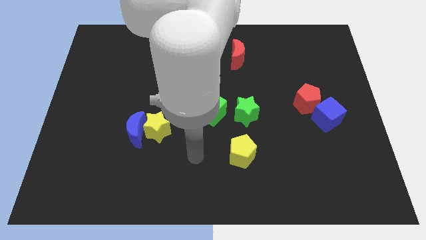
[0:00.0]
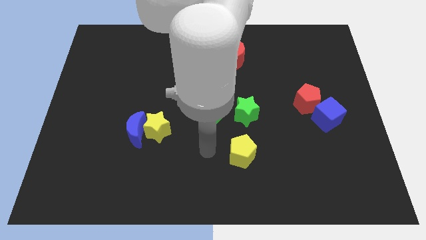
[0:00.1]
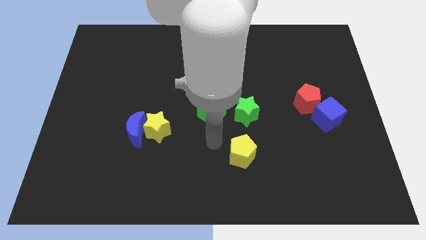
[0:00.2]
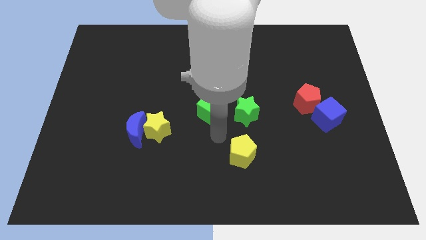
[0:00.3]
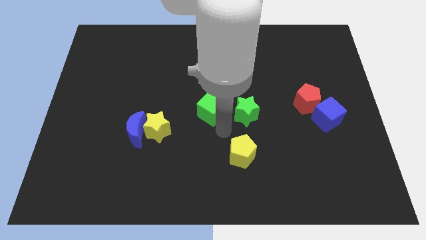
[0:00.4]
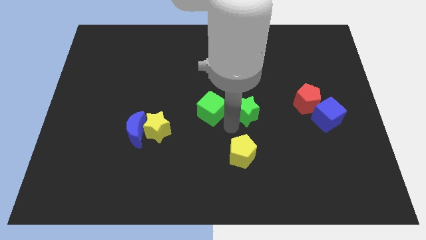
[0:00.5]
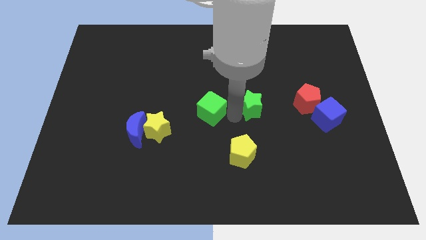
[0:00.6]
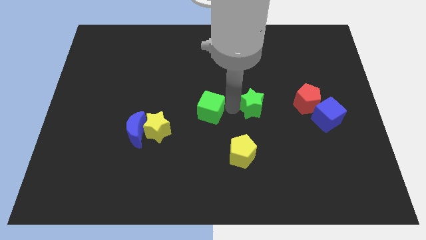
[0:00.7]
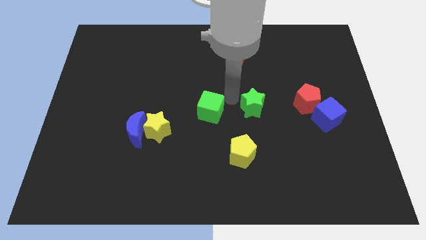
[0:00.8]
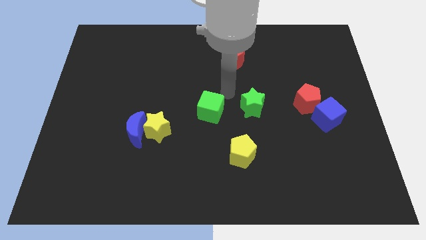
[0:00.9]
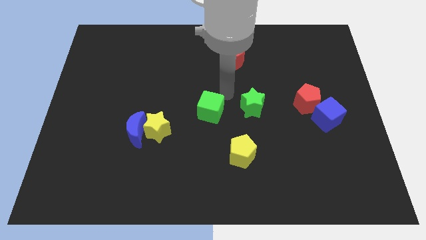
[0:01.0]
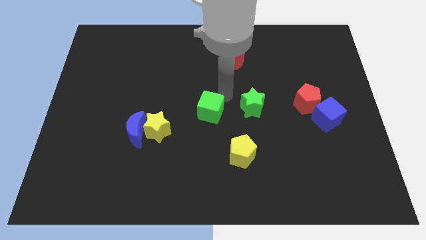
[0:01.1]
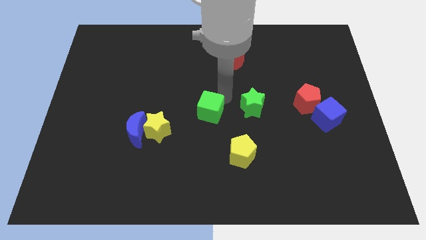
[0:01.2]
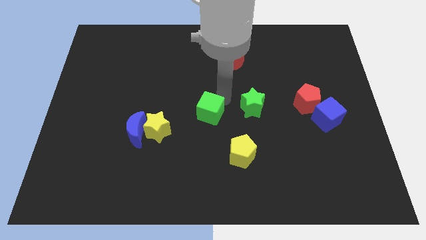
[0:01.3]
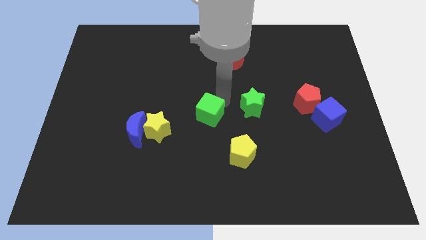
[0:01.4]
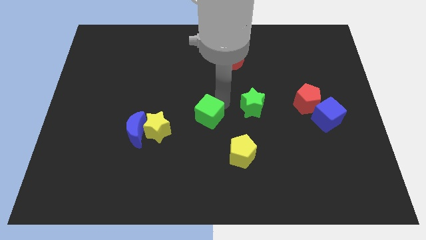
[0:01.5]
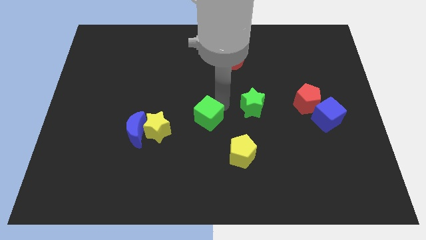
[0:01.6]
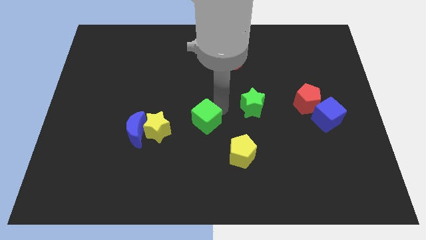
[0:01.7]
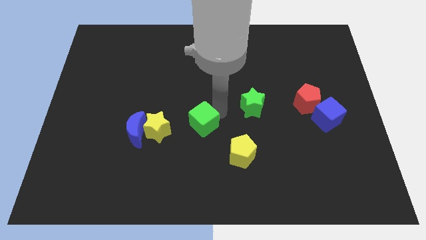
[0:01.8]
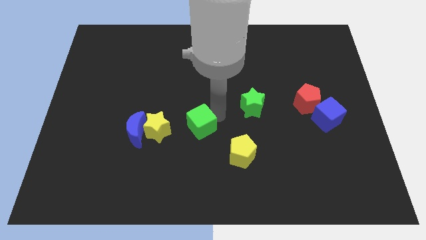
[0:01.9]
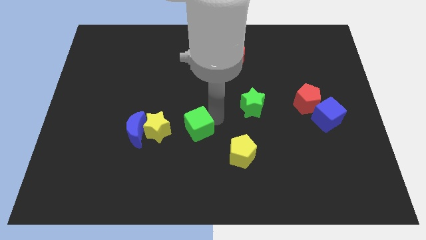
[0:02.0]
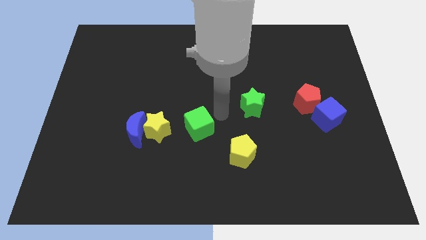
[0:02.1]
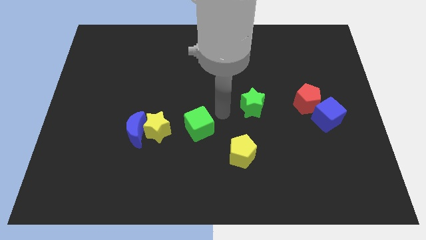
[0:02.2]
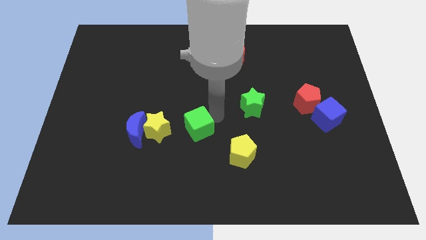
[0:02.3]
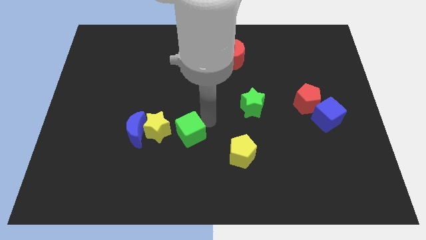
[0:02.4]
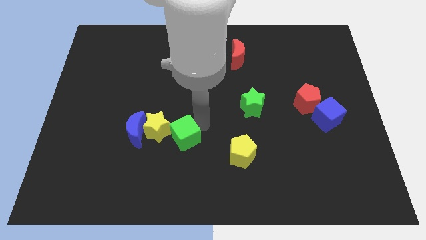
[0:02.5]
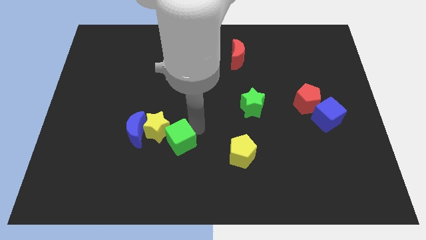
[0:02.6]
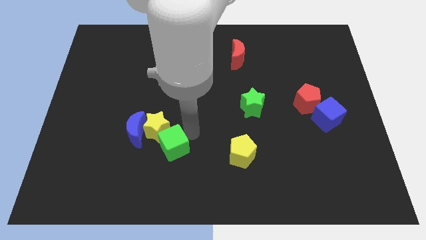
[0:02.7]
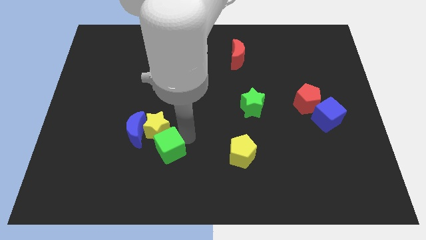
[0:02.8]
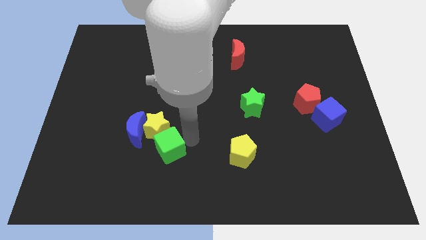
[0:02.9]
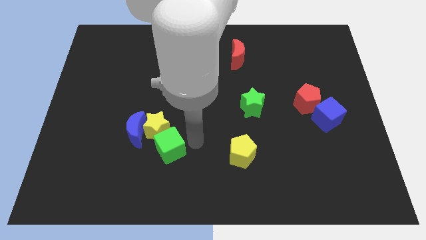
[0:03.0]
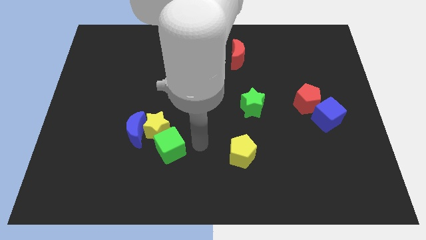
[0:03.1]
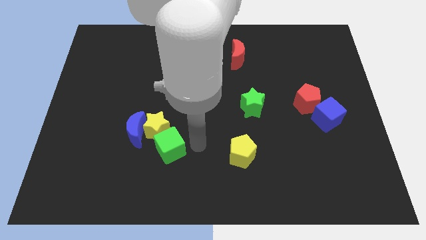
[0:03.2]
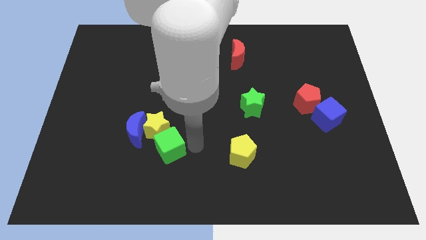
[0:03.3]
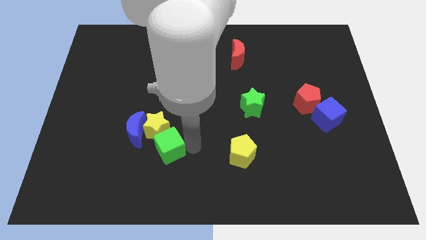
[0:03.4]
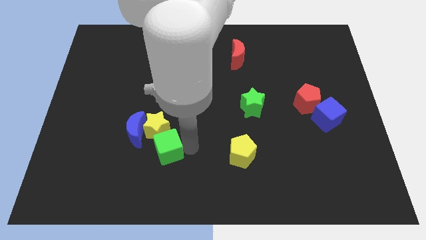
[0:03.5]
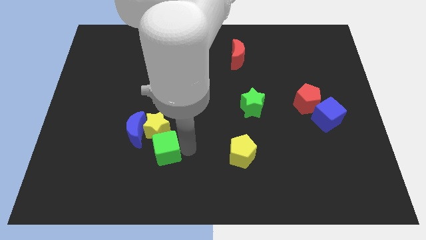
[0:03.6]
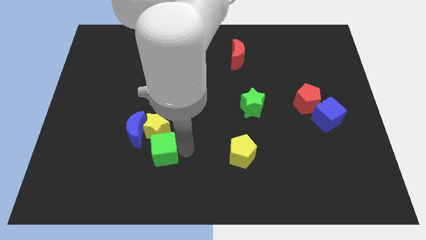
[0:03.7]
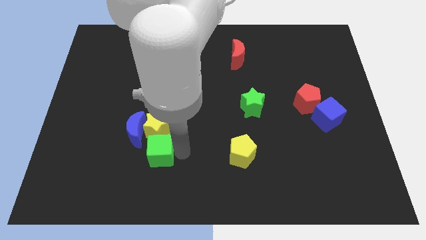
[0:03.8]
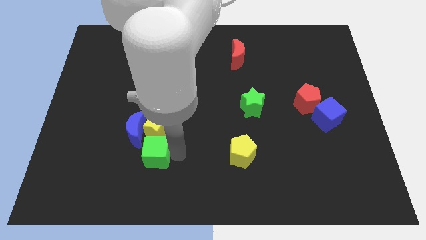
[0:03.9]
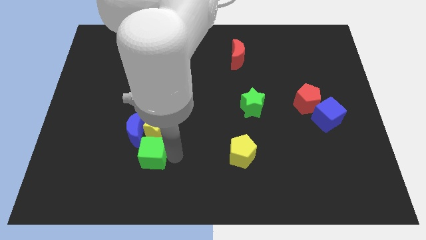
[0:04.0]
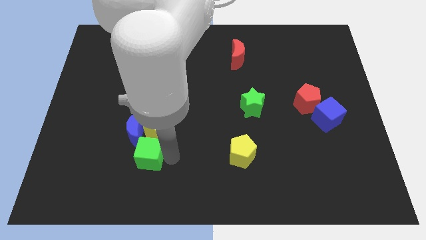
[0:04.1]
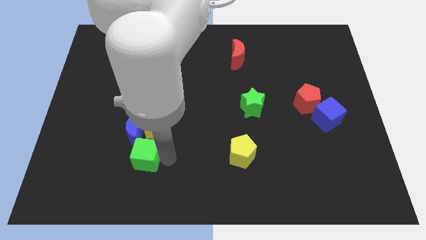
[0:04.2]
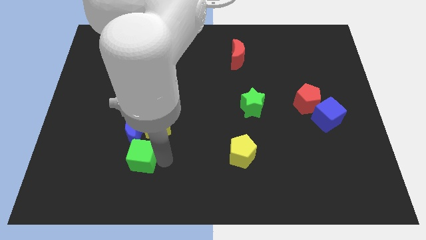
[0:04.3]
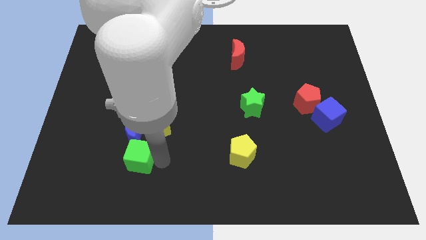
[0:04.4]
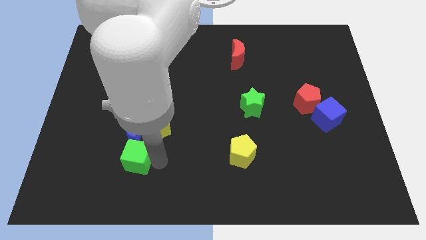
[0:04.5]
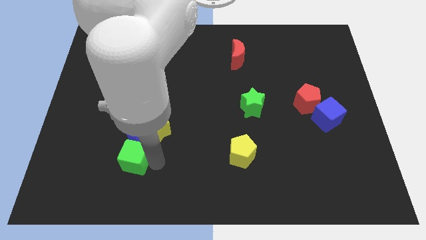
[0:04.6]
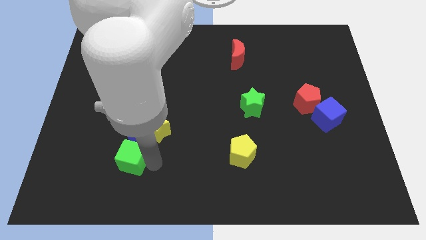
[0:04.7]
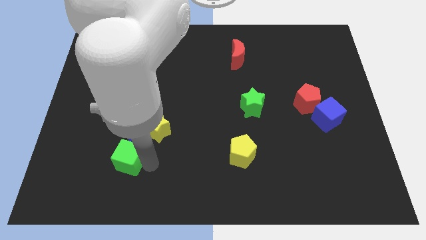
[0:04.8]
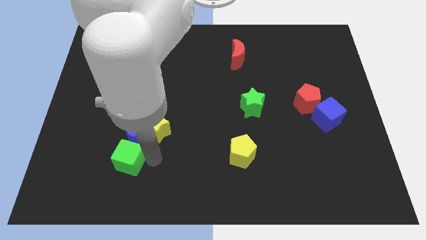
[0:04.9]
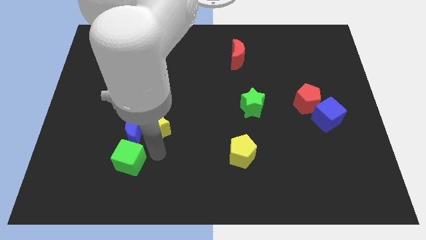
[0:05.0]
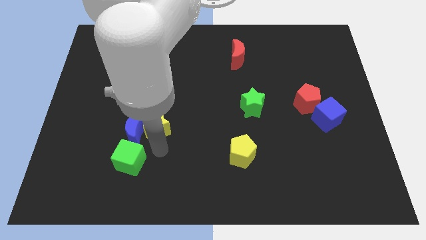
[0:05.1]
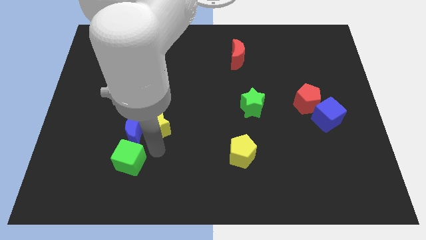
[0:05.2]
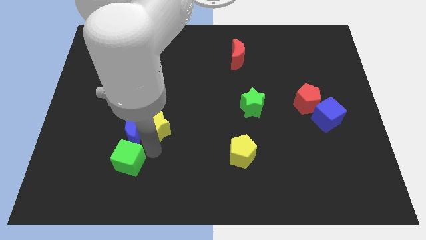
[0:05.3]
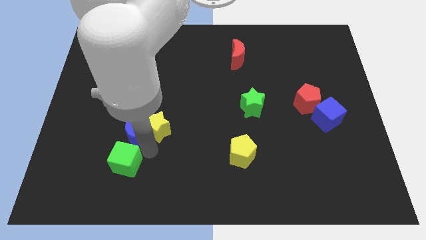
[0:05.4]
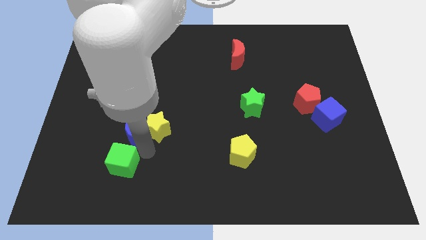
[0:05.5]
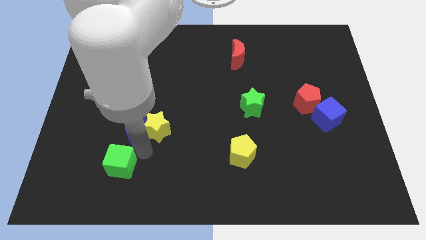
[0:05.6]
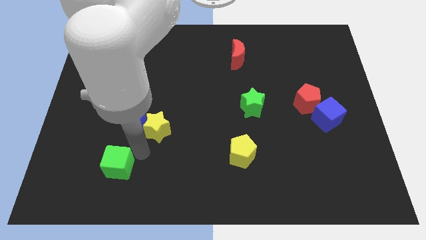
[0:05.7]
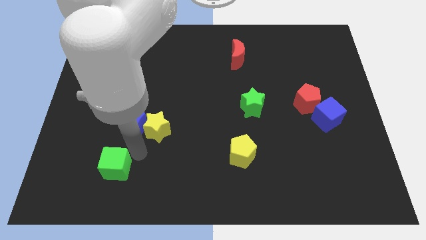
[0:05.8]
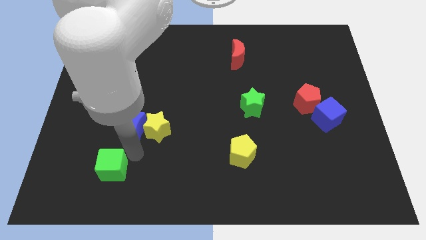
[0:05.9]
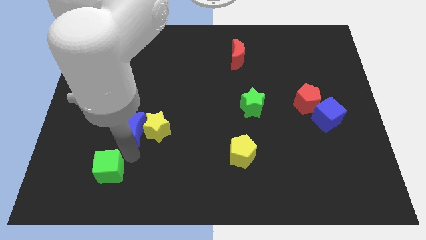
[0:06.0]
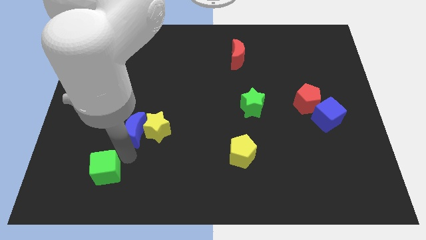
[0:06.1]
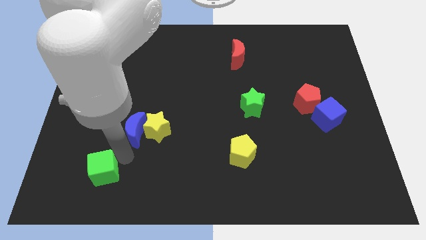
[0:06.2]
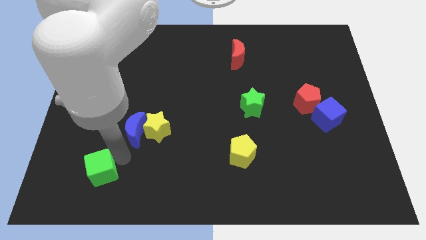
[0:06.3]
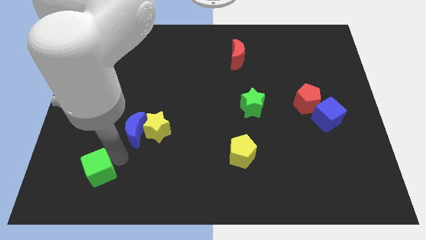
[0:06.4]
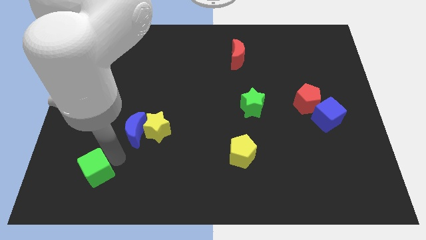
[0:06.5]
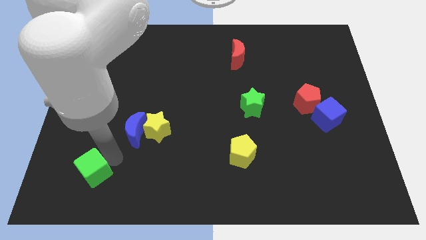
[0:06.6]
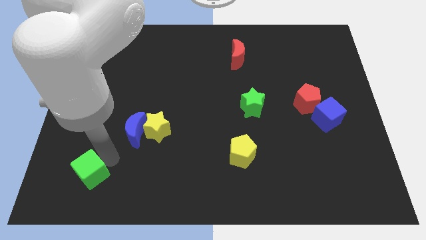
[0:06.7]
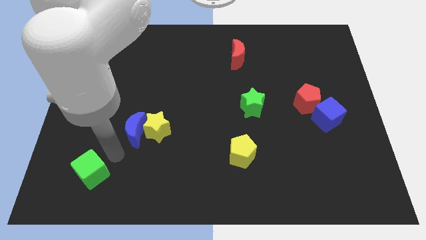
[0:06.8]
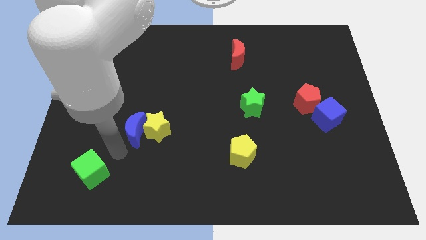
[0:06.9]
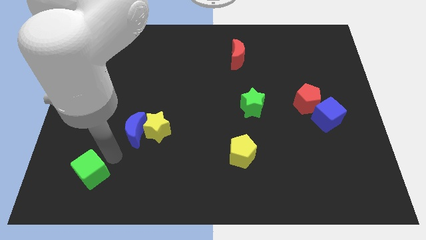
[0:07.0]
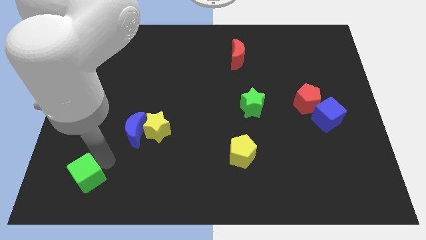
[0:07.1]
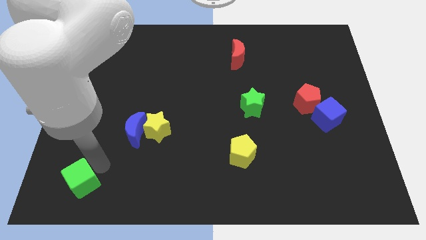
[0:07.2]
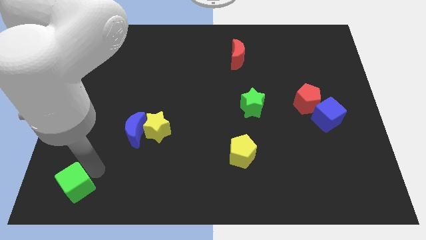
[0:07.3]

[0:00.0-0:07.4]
put the green cube to the bottom left
